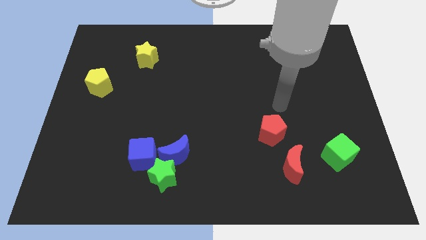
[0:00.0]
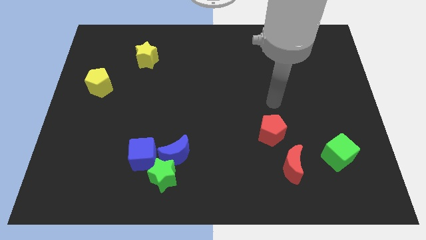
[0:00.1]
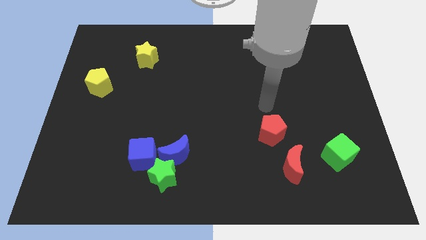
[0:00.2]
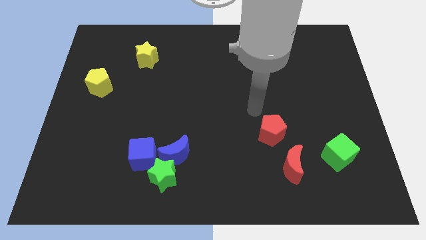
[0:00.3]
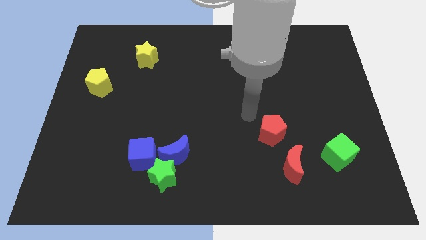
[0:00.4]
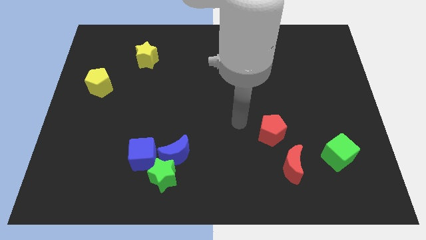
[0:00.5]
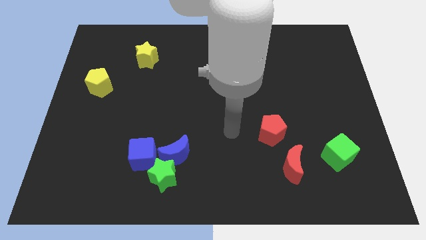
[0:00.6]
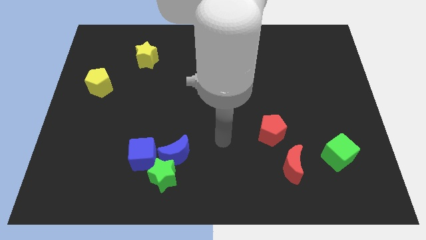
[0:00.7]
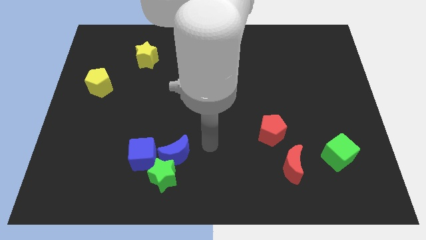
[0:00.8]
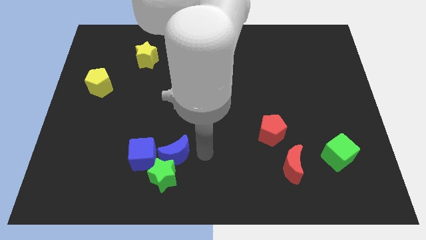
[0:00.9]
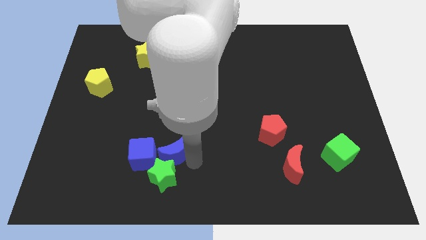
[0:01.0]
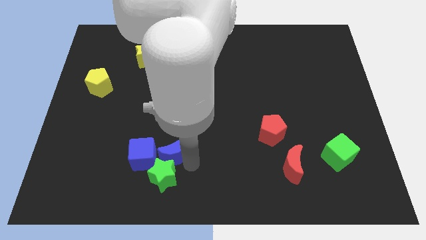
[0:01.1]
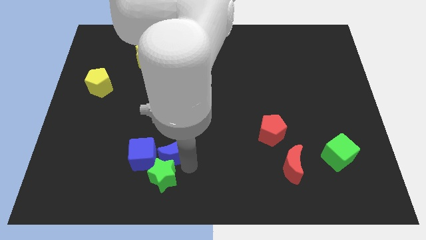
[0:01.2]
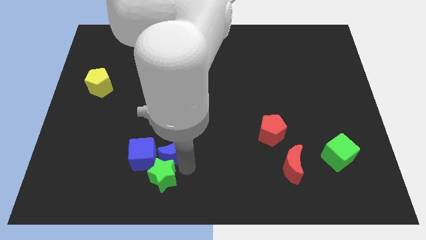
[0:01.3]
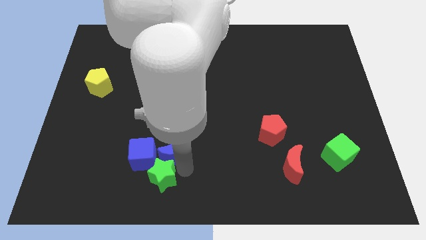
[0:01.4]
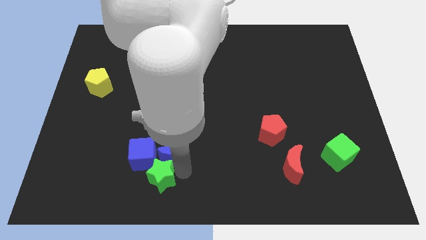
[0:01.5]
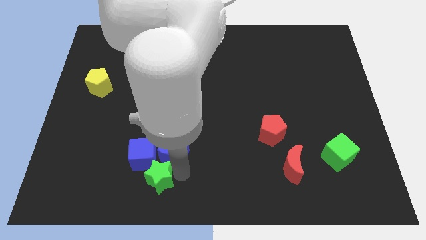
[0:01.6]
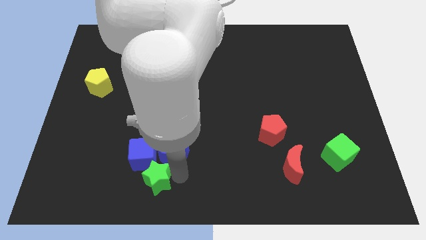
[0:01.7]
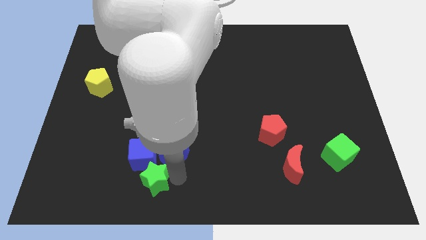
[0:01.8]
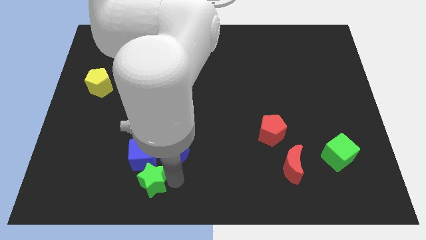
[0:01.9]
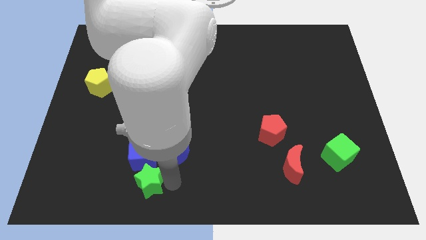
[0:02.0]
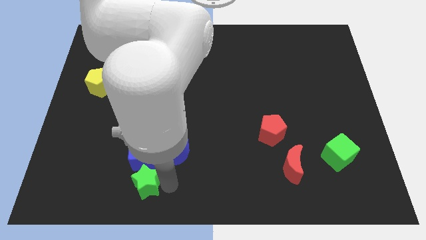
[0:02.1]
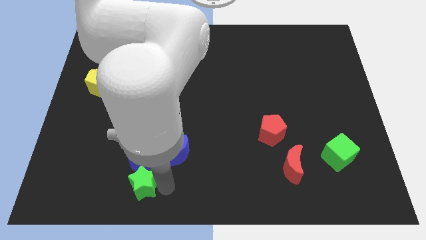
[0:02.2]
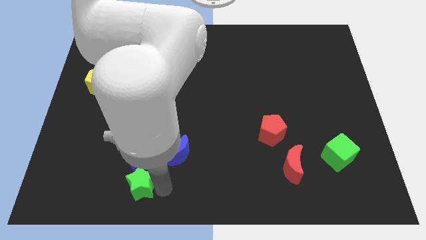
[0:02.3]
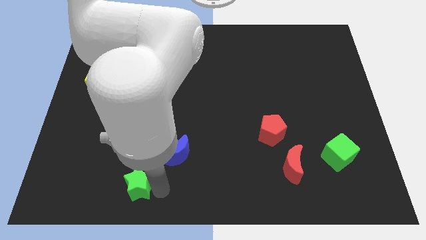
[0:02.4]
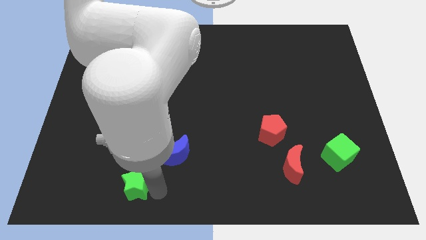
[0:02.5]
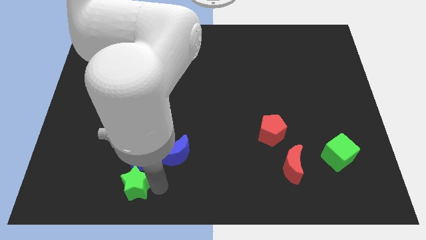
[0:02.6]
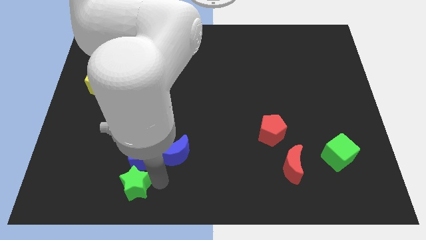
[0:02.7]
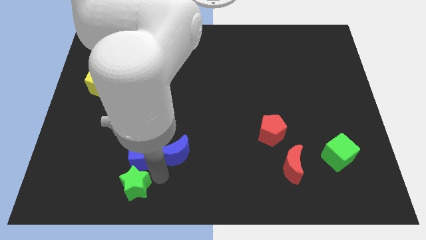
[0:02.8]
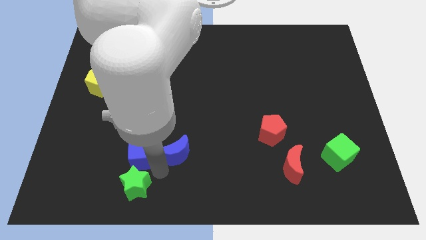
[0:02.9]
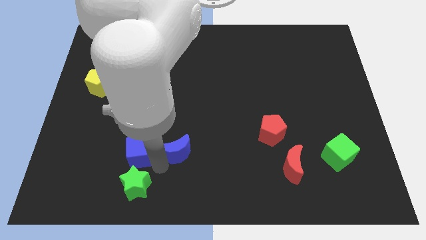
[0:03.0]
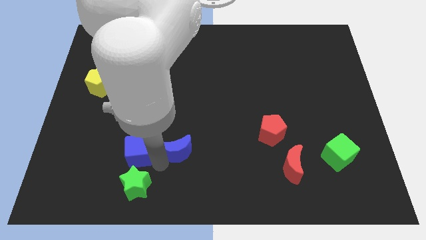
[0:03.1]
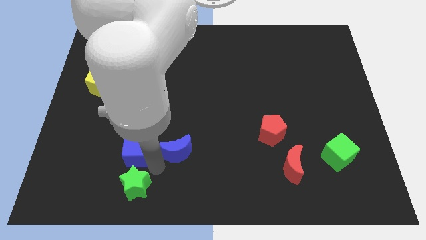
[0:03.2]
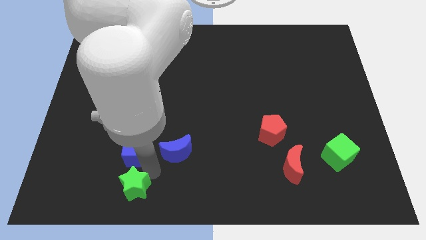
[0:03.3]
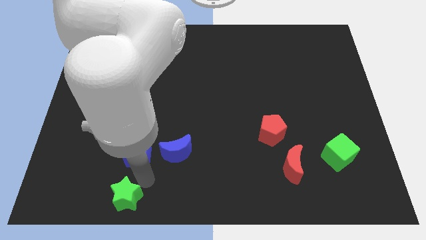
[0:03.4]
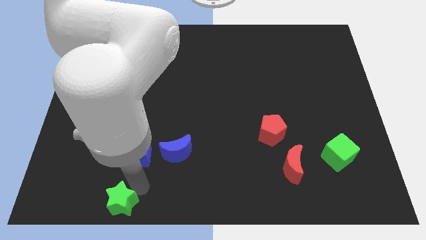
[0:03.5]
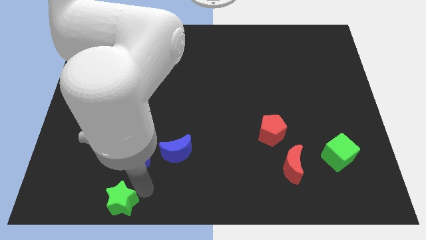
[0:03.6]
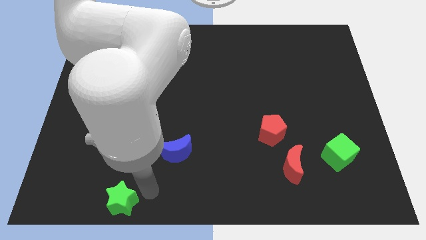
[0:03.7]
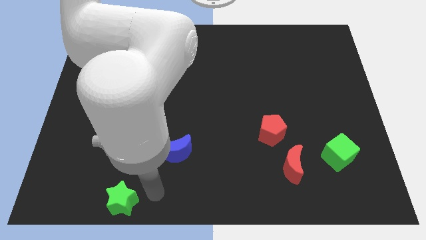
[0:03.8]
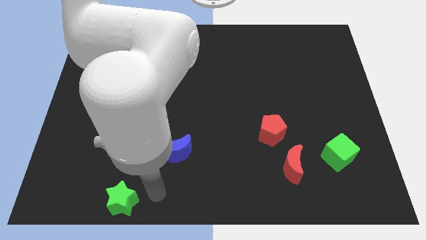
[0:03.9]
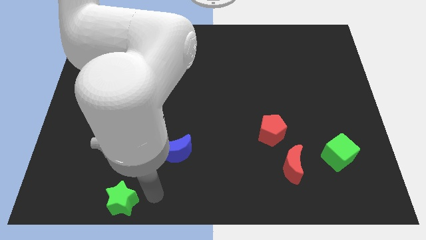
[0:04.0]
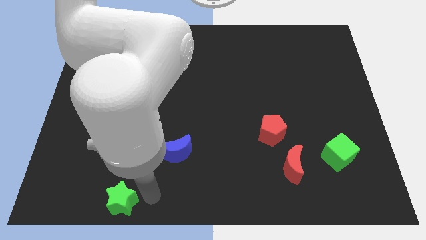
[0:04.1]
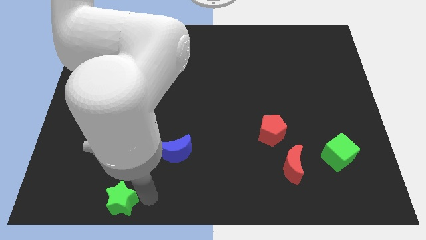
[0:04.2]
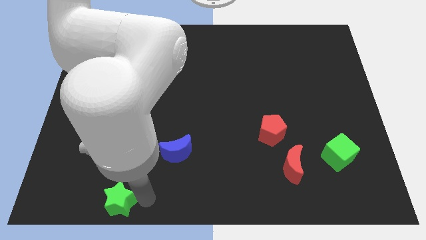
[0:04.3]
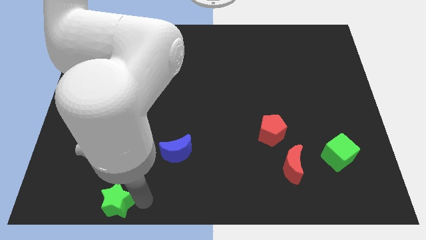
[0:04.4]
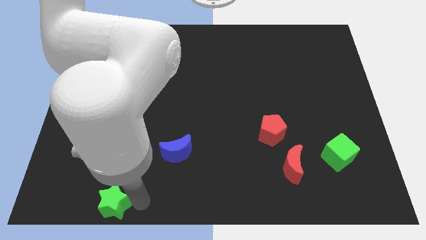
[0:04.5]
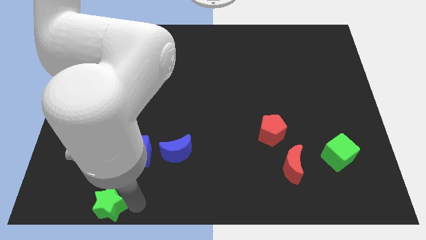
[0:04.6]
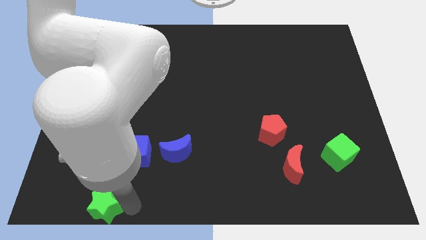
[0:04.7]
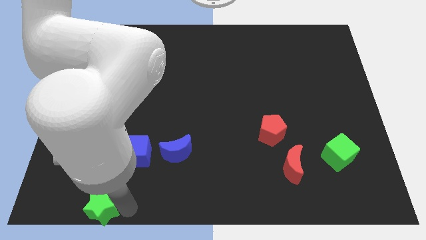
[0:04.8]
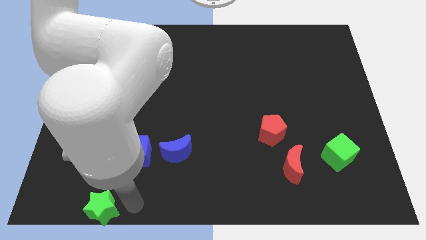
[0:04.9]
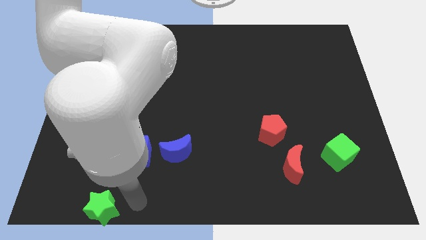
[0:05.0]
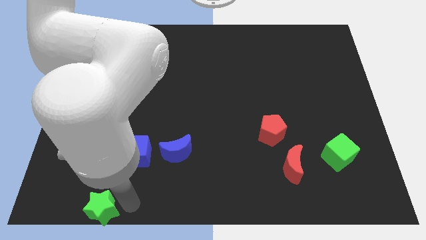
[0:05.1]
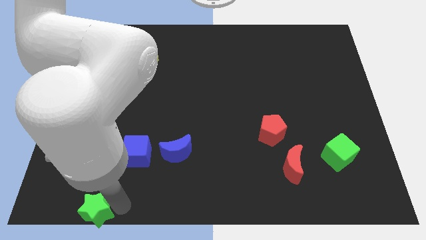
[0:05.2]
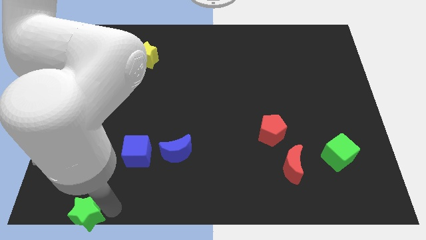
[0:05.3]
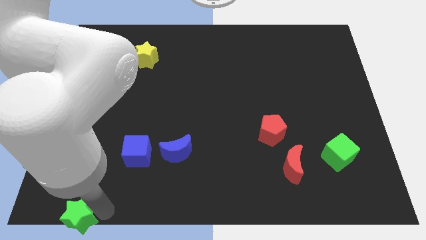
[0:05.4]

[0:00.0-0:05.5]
move the green star to the bottom left corner

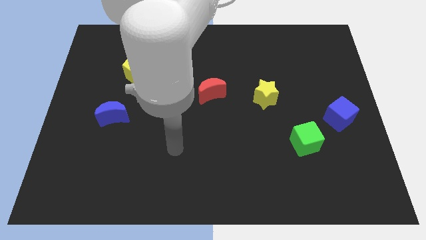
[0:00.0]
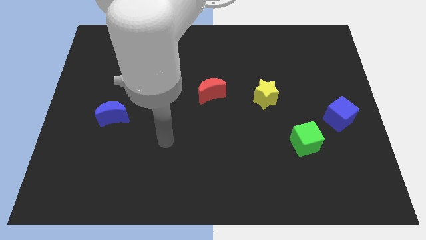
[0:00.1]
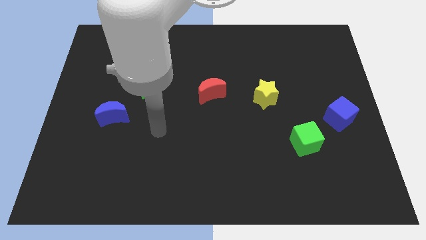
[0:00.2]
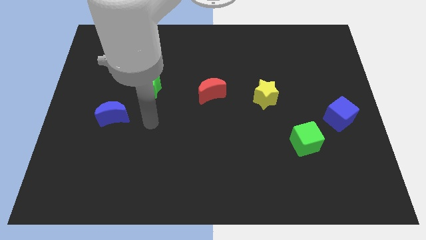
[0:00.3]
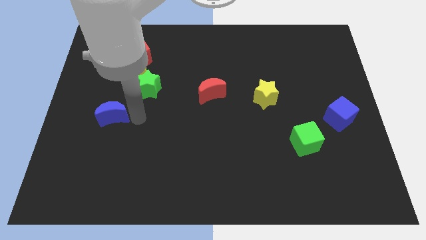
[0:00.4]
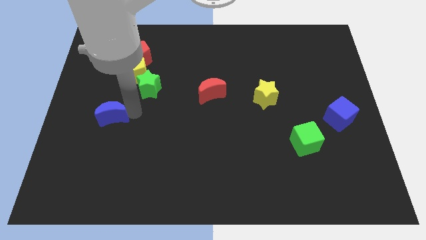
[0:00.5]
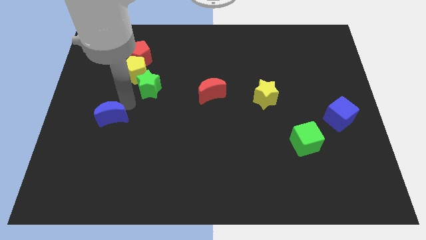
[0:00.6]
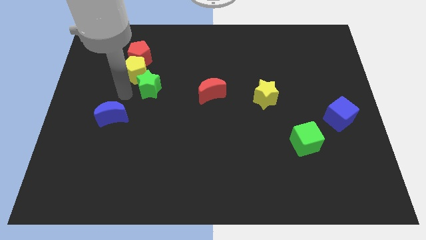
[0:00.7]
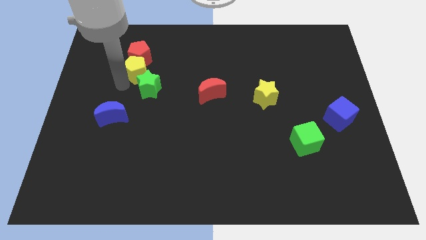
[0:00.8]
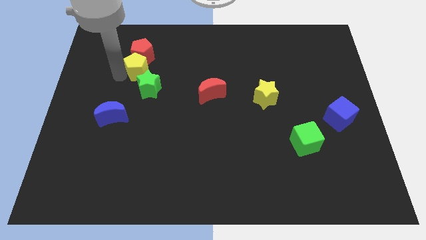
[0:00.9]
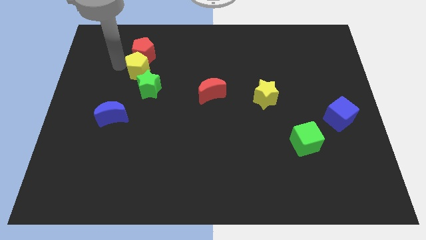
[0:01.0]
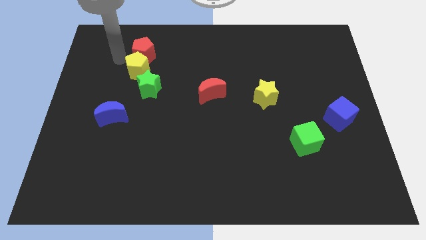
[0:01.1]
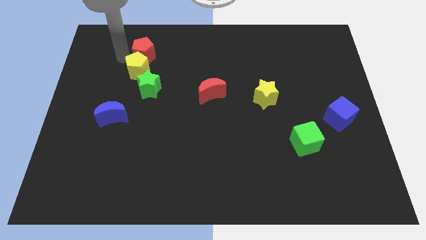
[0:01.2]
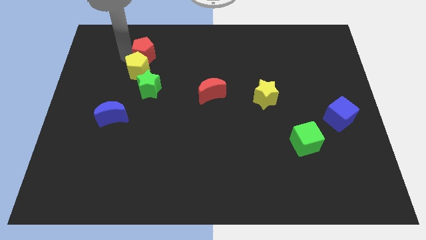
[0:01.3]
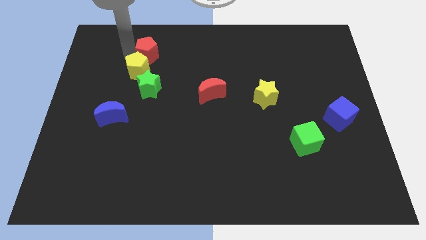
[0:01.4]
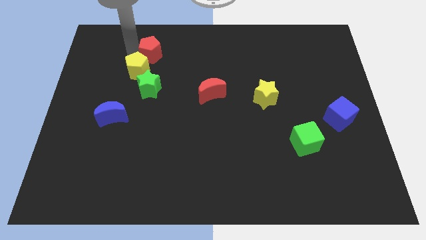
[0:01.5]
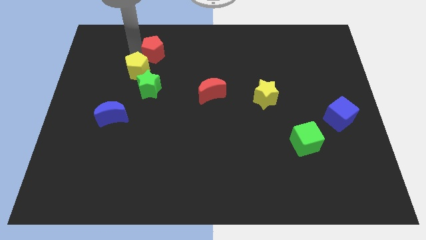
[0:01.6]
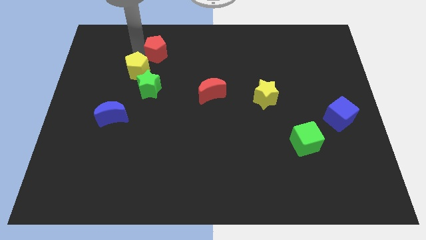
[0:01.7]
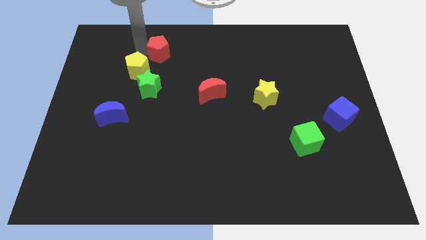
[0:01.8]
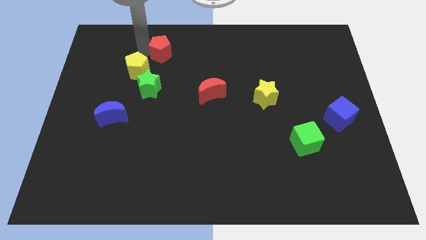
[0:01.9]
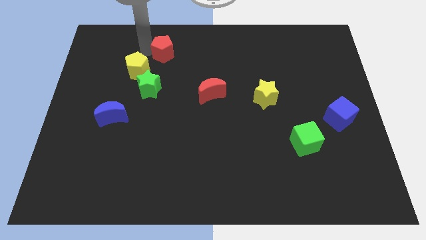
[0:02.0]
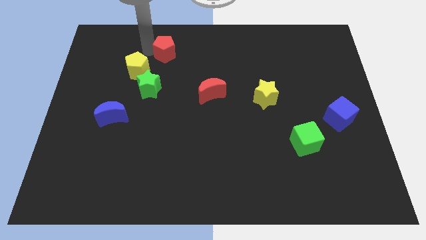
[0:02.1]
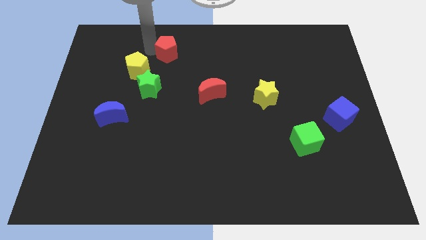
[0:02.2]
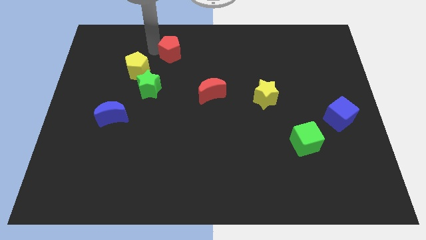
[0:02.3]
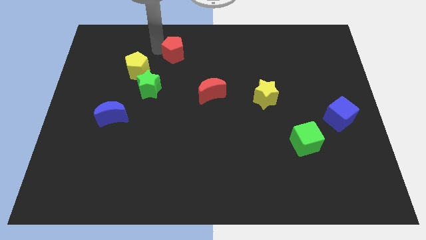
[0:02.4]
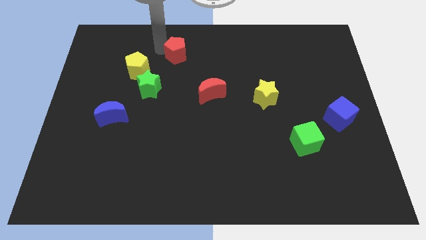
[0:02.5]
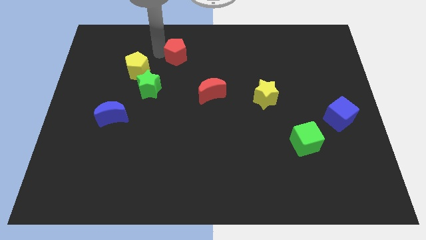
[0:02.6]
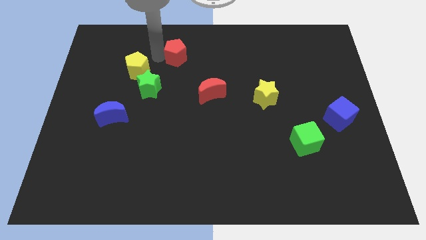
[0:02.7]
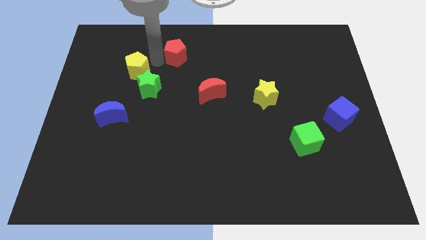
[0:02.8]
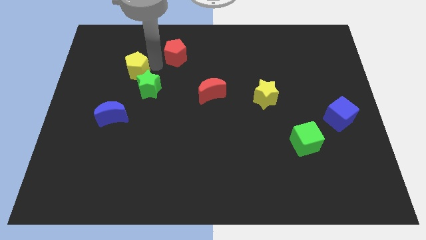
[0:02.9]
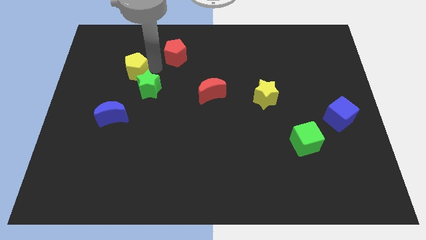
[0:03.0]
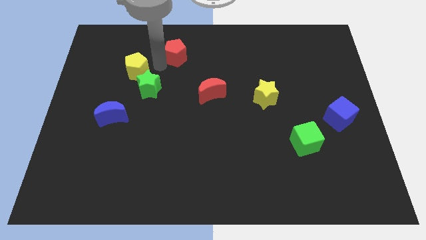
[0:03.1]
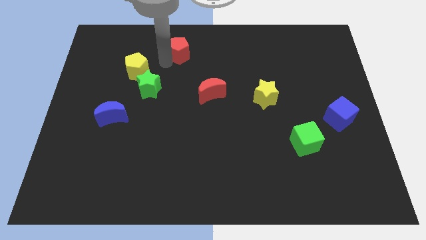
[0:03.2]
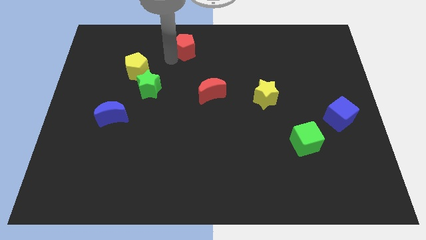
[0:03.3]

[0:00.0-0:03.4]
push the red pentagon to the top
